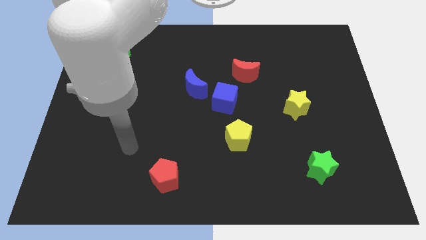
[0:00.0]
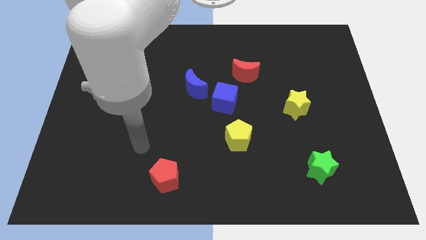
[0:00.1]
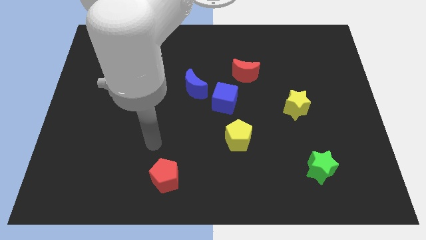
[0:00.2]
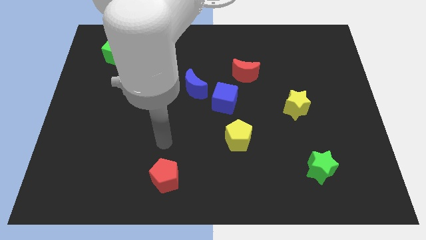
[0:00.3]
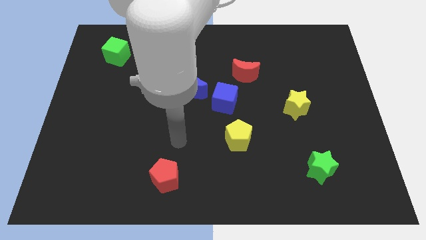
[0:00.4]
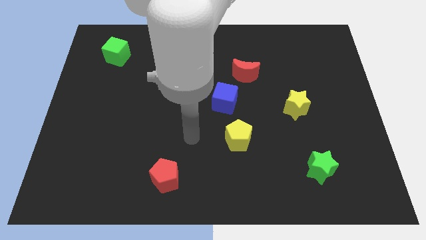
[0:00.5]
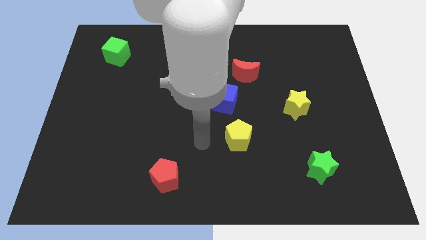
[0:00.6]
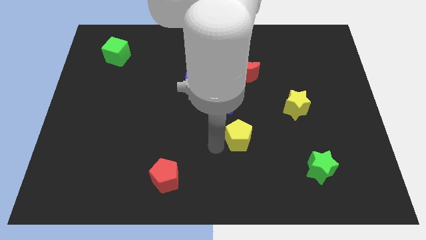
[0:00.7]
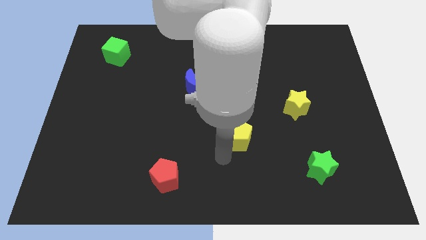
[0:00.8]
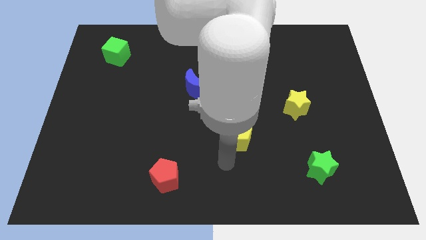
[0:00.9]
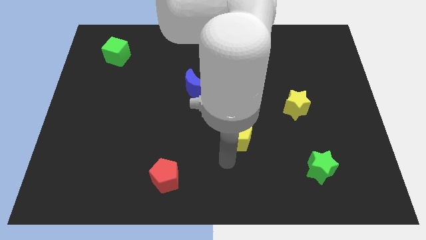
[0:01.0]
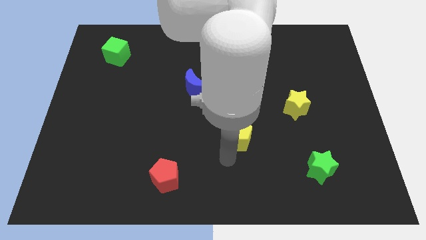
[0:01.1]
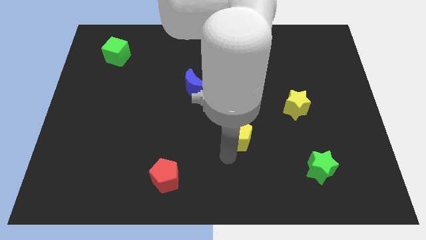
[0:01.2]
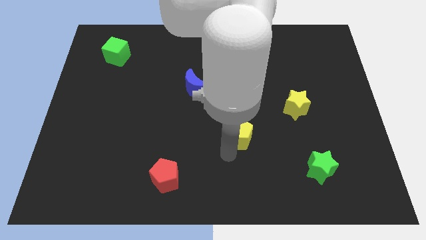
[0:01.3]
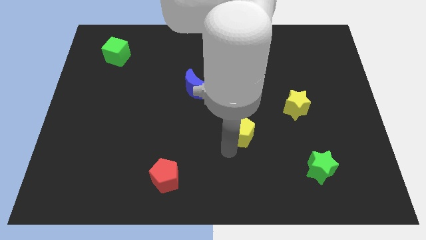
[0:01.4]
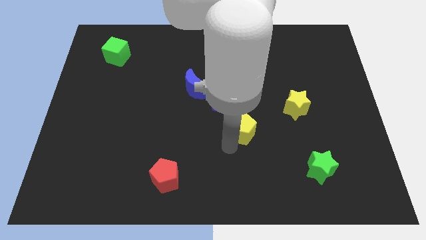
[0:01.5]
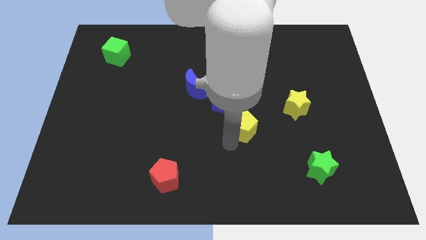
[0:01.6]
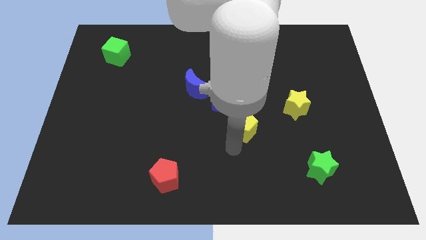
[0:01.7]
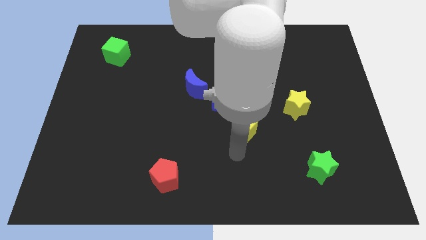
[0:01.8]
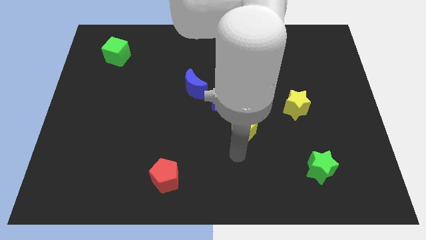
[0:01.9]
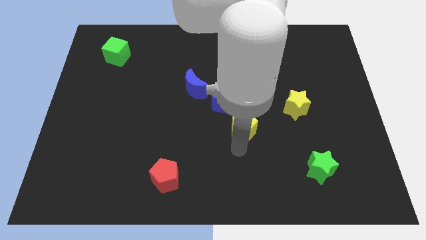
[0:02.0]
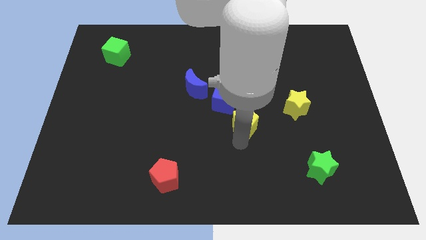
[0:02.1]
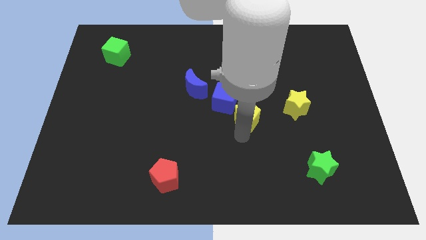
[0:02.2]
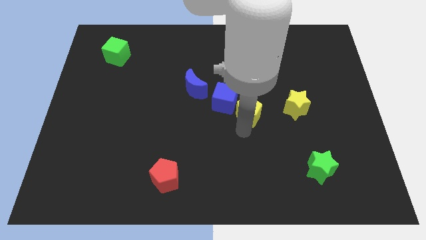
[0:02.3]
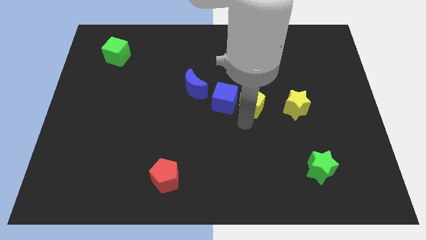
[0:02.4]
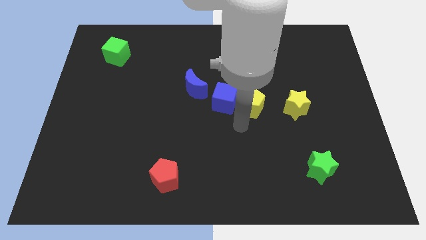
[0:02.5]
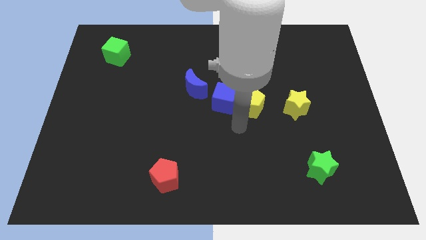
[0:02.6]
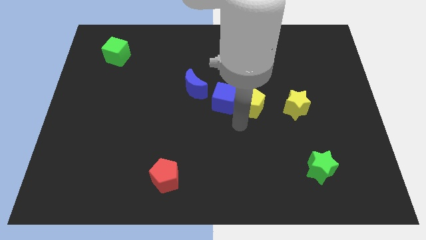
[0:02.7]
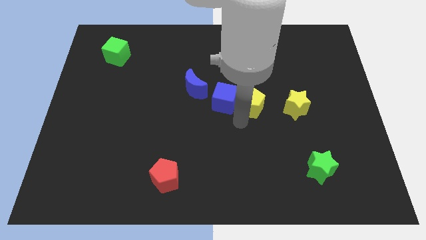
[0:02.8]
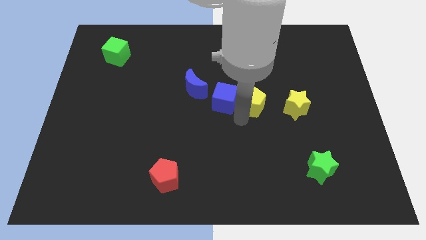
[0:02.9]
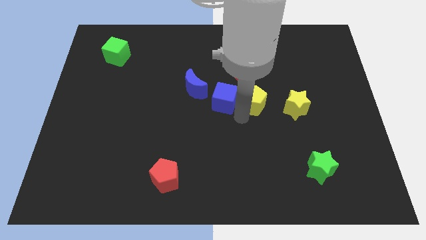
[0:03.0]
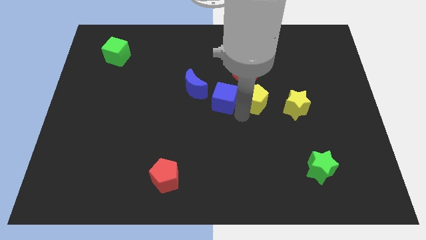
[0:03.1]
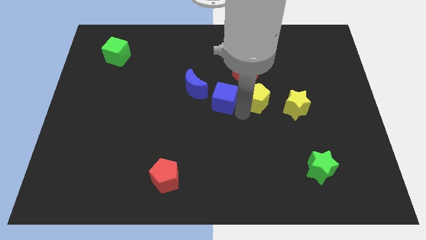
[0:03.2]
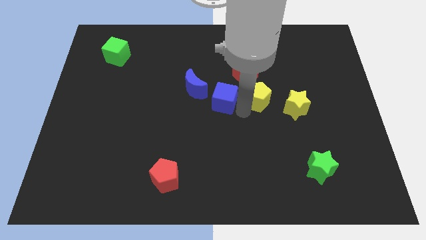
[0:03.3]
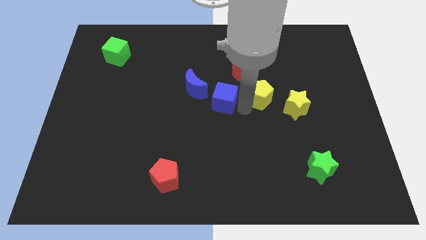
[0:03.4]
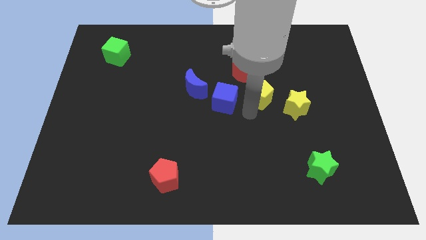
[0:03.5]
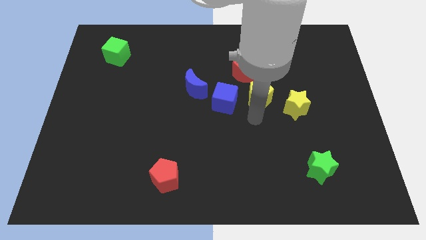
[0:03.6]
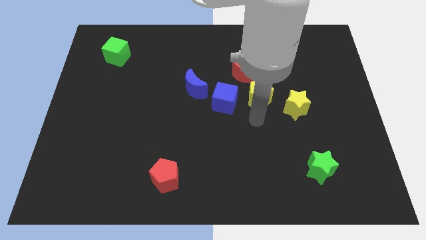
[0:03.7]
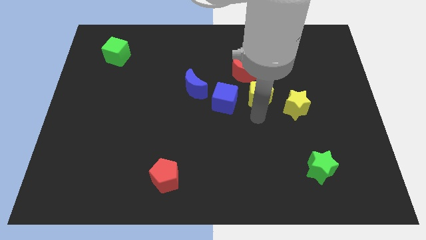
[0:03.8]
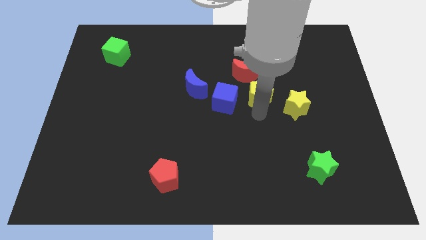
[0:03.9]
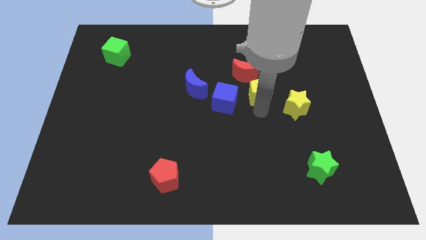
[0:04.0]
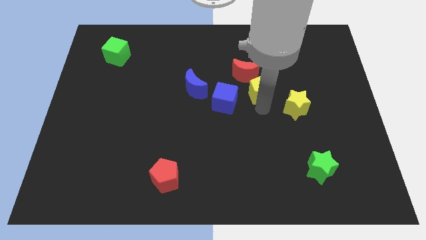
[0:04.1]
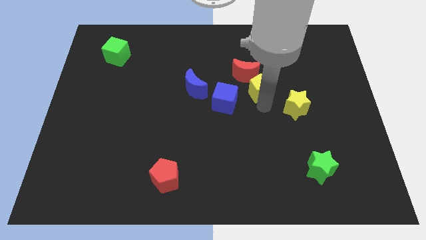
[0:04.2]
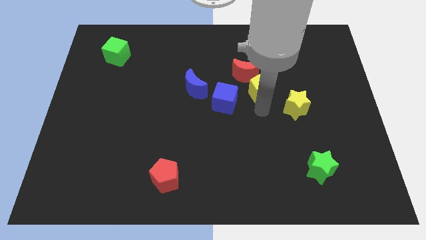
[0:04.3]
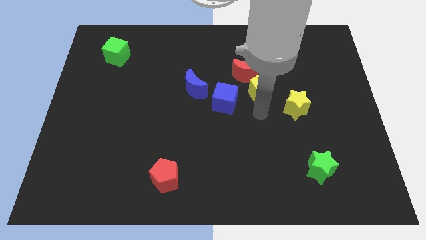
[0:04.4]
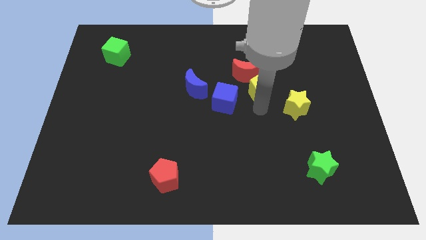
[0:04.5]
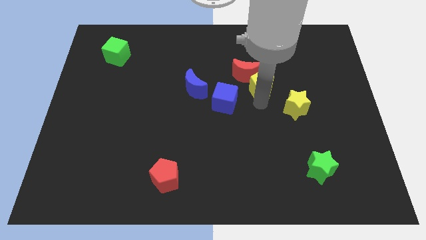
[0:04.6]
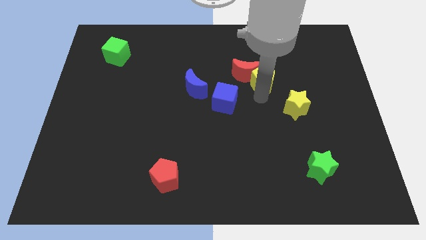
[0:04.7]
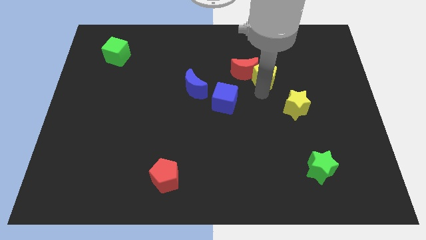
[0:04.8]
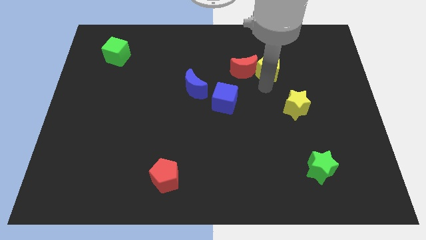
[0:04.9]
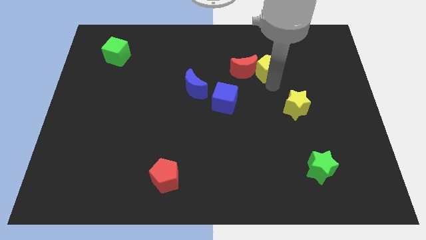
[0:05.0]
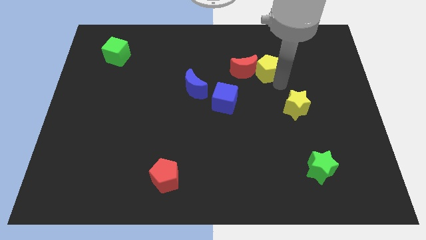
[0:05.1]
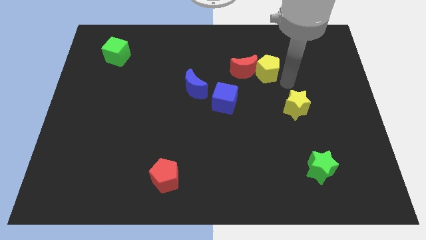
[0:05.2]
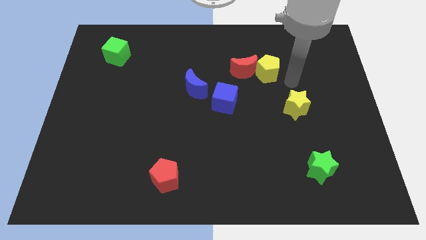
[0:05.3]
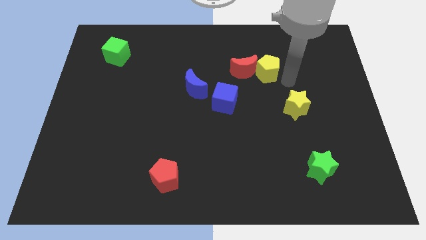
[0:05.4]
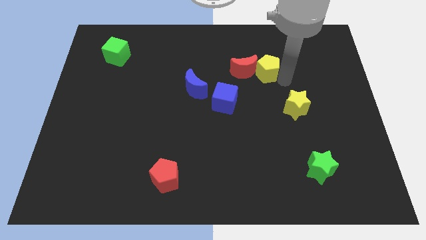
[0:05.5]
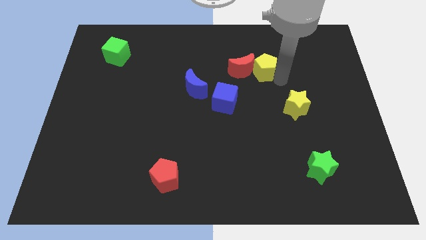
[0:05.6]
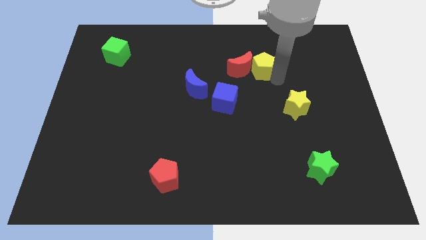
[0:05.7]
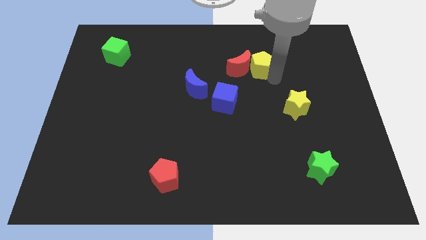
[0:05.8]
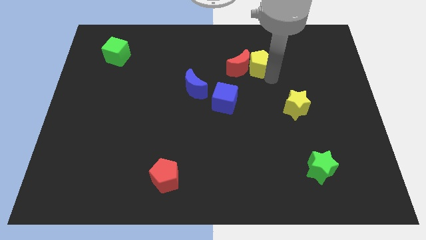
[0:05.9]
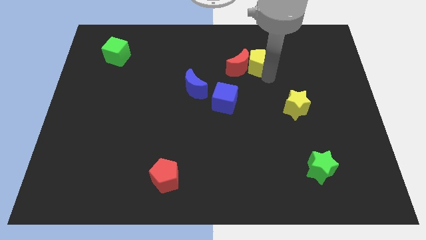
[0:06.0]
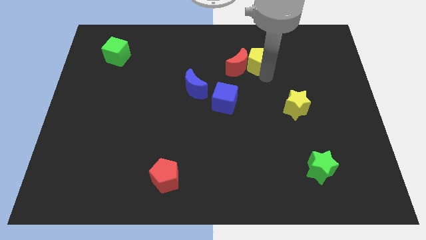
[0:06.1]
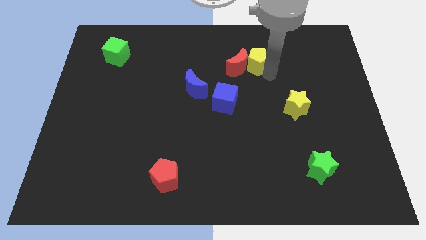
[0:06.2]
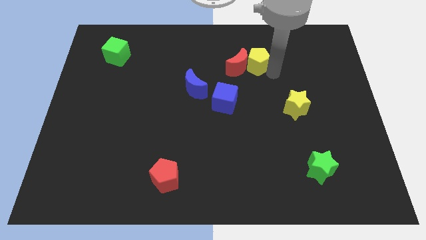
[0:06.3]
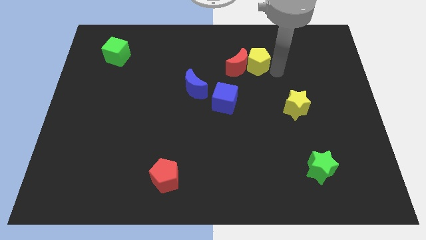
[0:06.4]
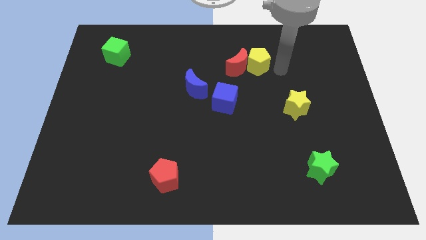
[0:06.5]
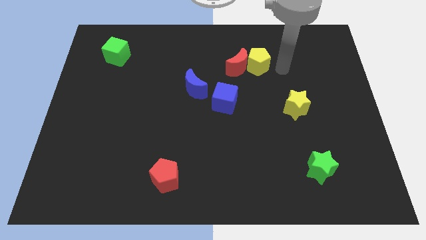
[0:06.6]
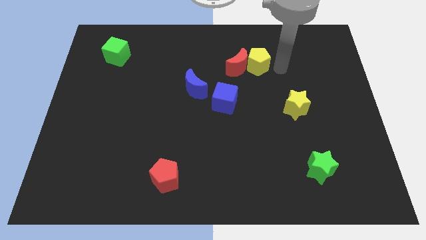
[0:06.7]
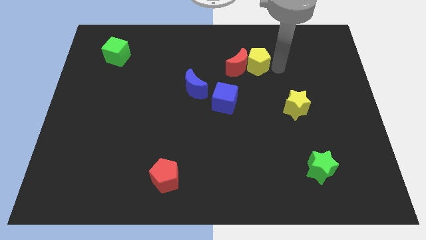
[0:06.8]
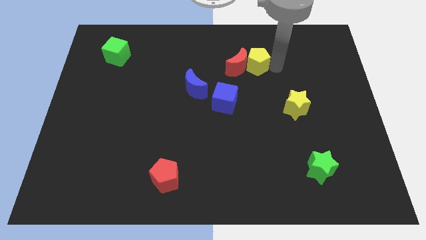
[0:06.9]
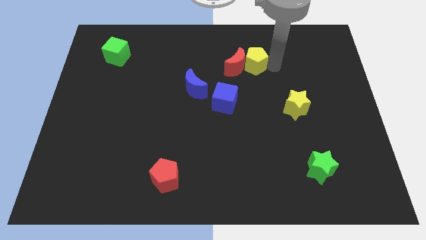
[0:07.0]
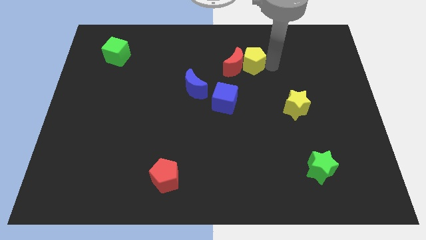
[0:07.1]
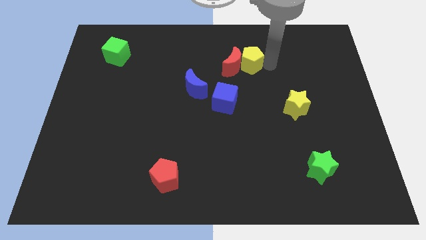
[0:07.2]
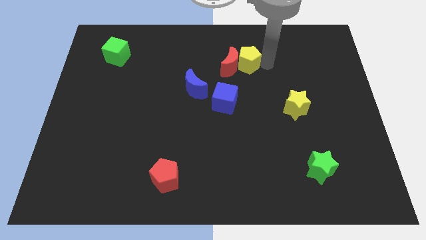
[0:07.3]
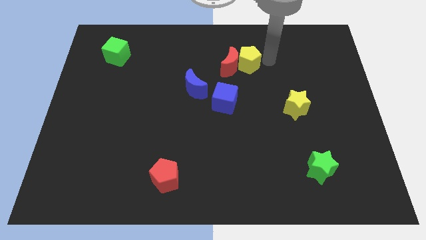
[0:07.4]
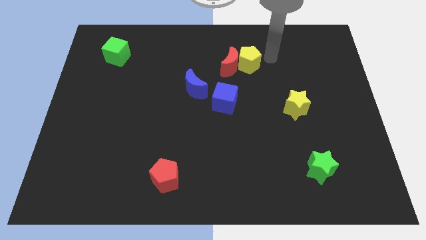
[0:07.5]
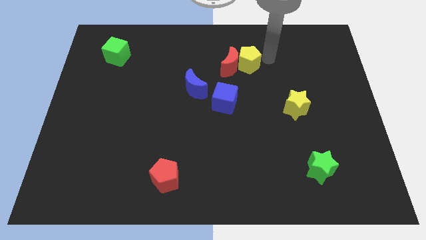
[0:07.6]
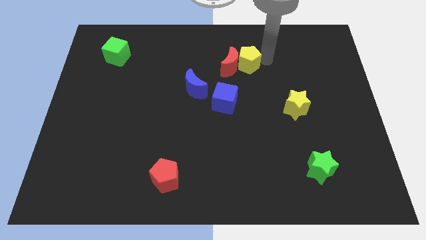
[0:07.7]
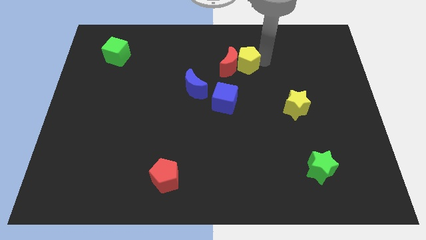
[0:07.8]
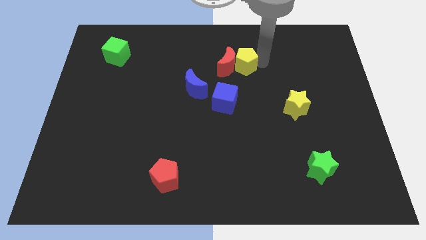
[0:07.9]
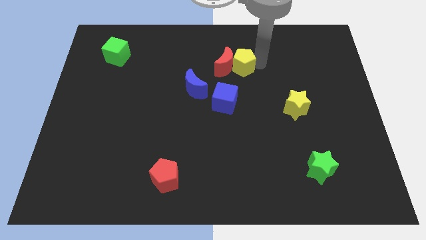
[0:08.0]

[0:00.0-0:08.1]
put the yellow pentagon above the blue cube
